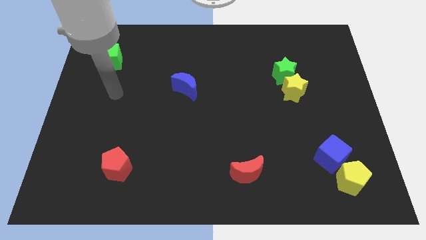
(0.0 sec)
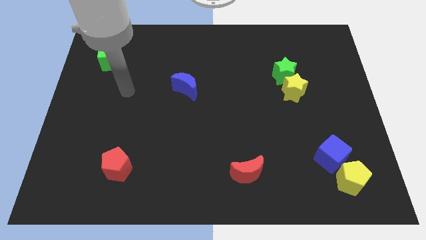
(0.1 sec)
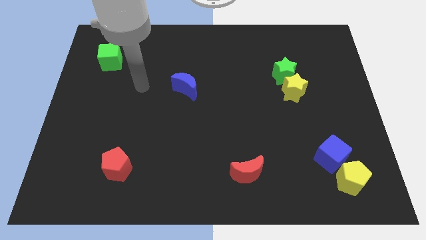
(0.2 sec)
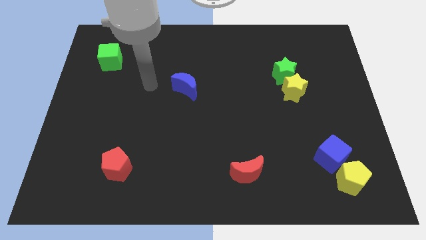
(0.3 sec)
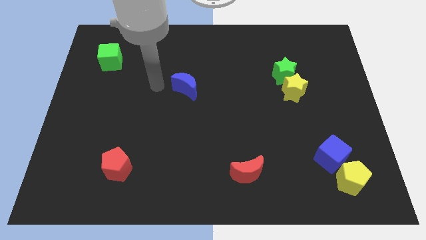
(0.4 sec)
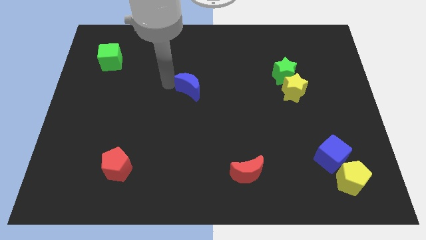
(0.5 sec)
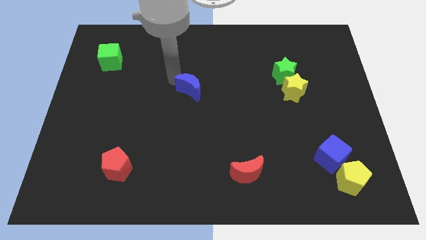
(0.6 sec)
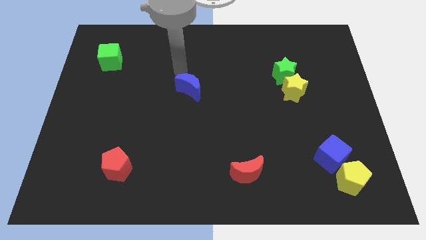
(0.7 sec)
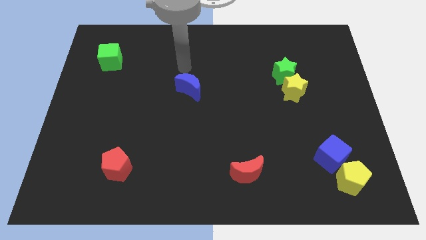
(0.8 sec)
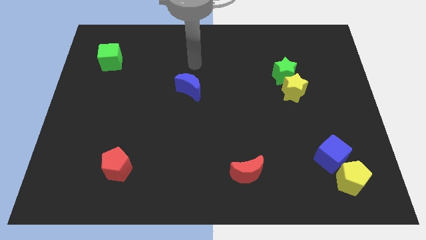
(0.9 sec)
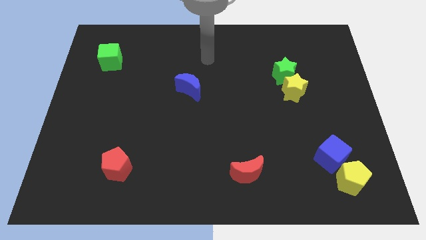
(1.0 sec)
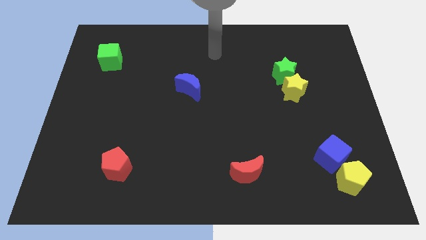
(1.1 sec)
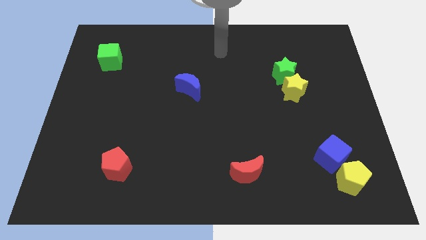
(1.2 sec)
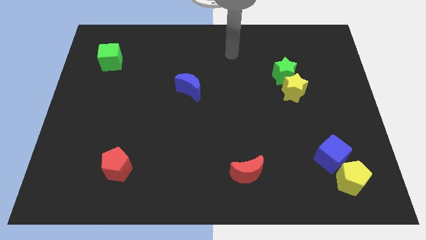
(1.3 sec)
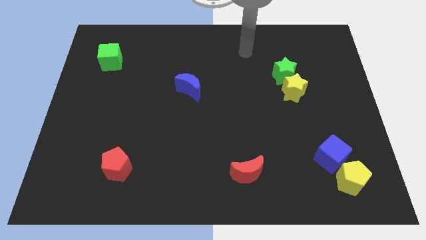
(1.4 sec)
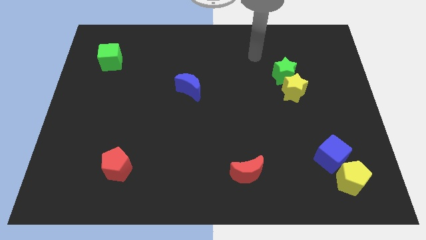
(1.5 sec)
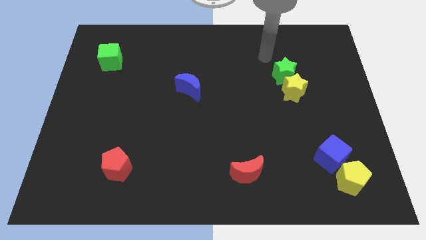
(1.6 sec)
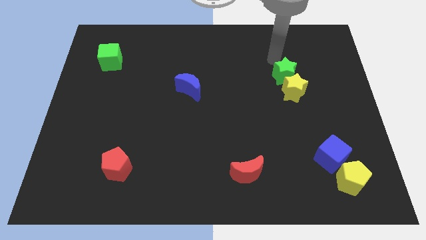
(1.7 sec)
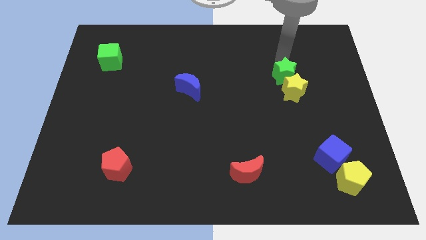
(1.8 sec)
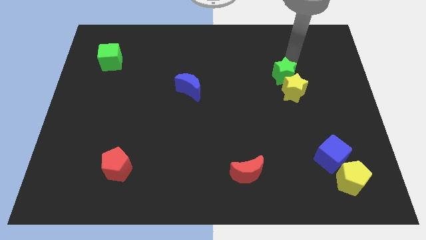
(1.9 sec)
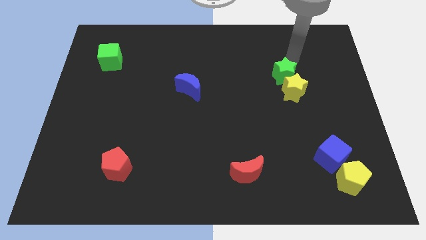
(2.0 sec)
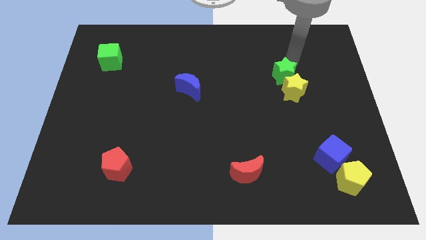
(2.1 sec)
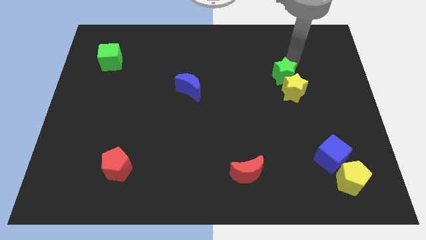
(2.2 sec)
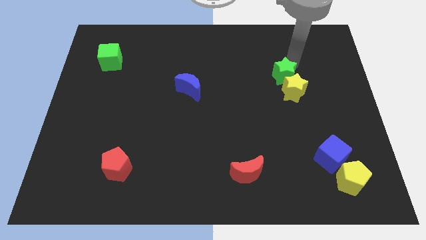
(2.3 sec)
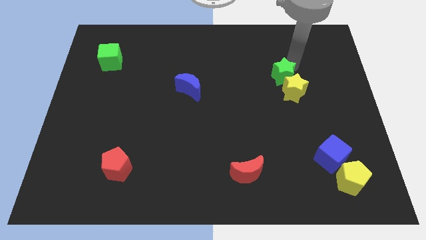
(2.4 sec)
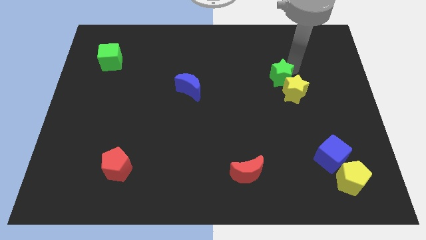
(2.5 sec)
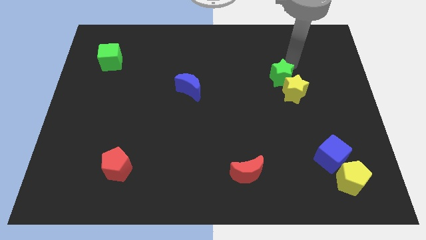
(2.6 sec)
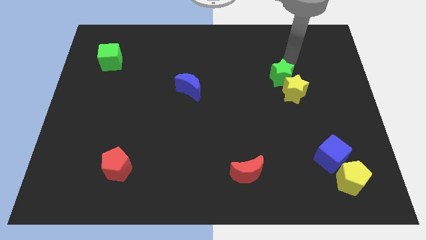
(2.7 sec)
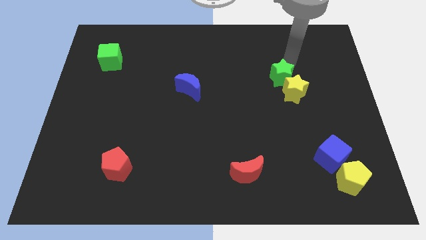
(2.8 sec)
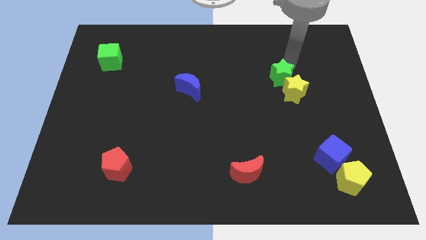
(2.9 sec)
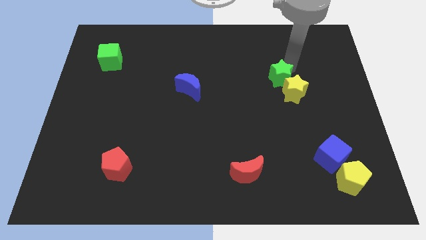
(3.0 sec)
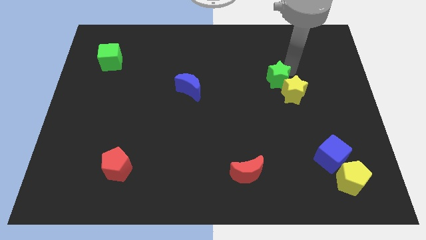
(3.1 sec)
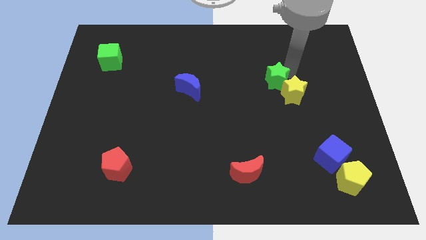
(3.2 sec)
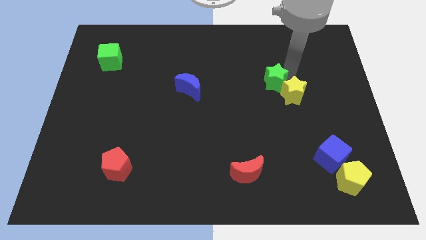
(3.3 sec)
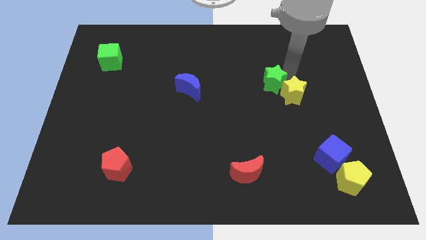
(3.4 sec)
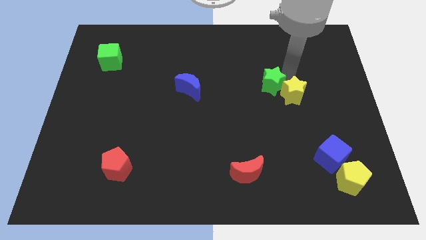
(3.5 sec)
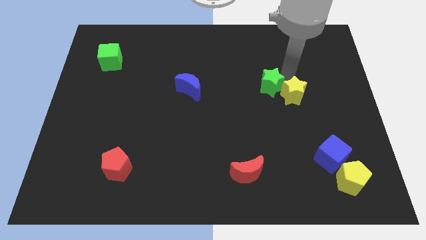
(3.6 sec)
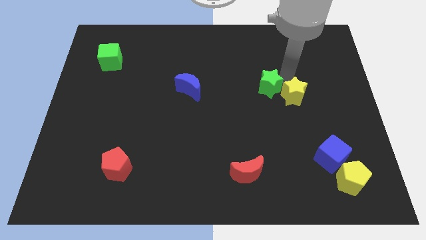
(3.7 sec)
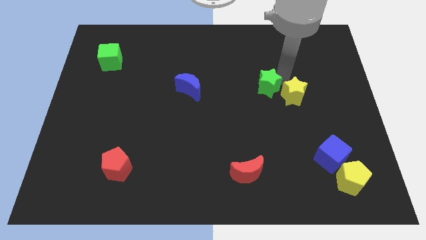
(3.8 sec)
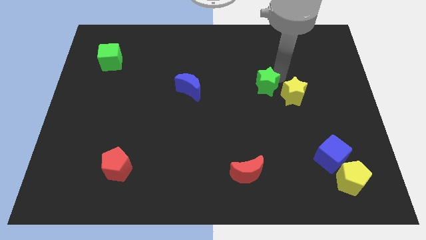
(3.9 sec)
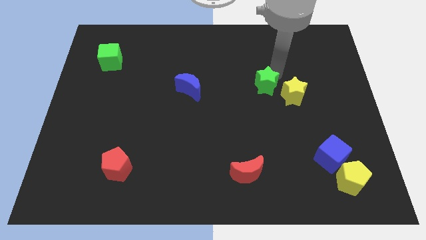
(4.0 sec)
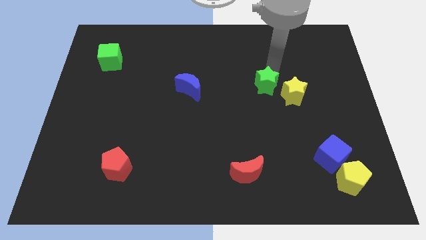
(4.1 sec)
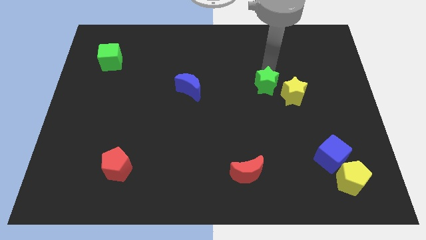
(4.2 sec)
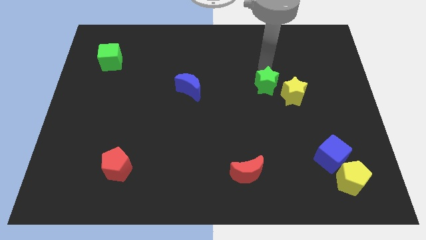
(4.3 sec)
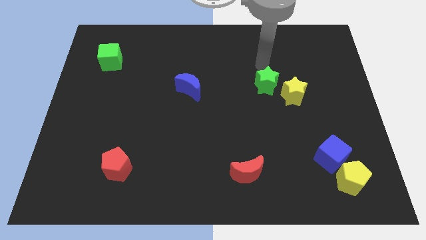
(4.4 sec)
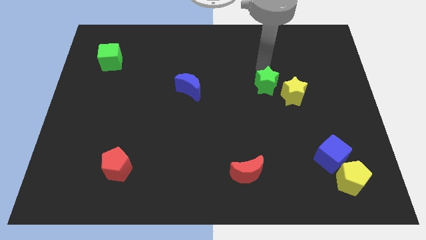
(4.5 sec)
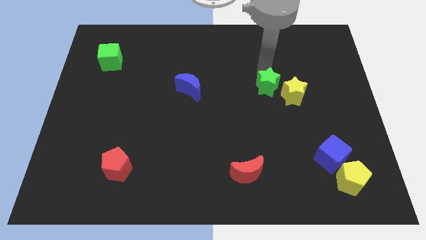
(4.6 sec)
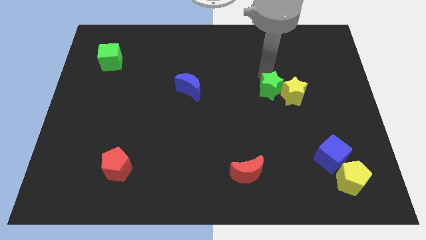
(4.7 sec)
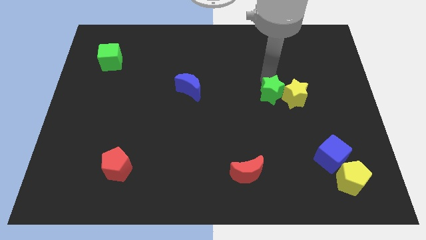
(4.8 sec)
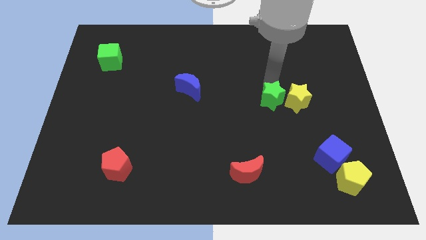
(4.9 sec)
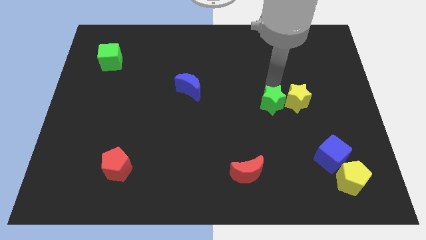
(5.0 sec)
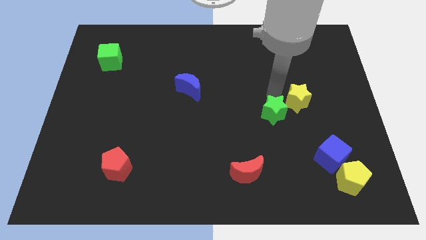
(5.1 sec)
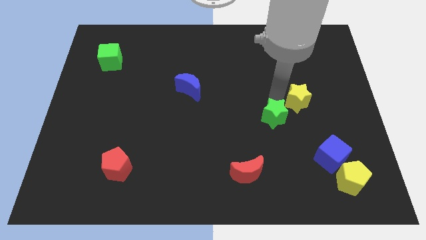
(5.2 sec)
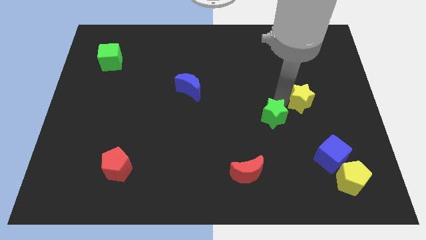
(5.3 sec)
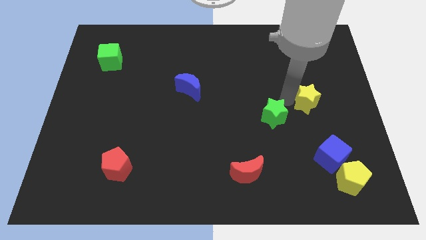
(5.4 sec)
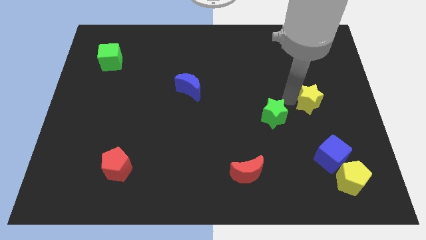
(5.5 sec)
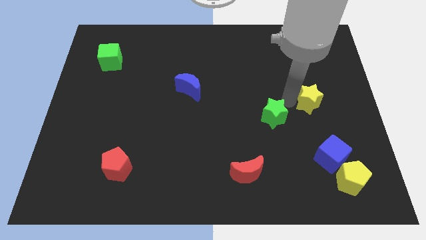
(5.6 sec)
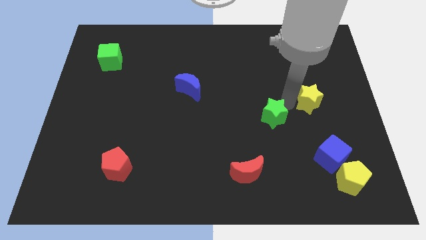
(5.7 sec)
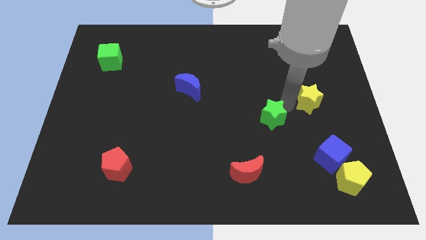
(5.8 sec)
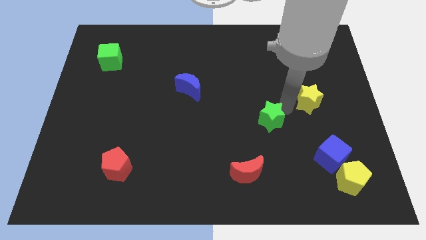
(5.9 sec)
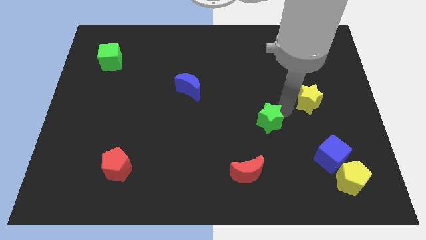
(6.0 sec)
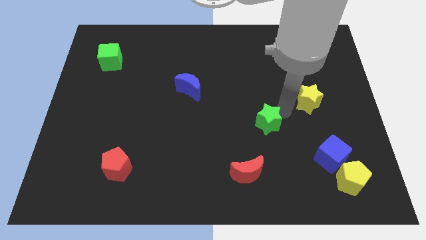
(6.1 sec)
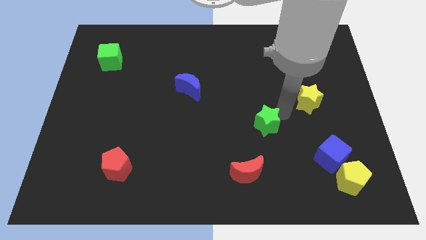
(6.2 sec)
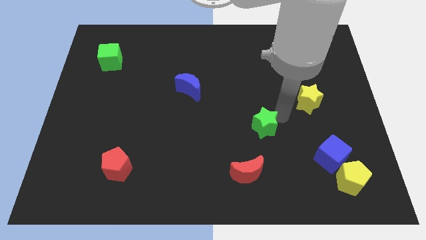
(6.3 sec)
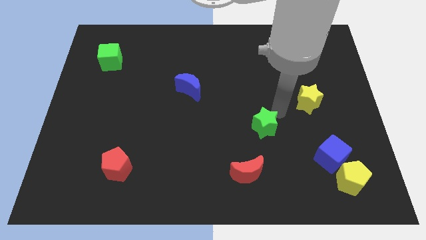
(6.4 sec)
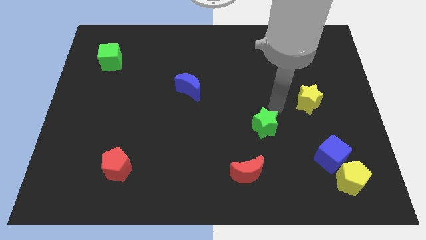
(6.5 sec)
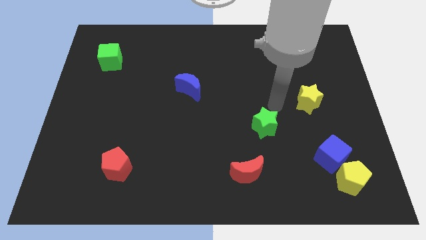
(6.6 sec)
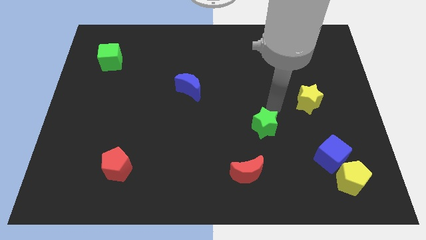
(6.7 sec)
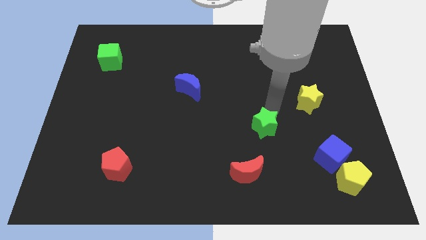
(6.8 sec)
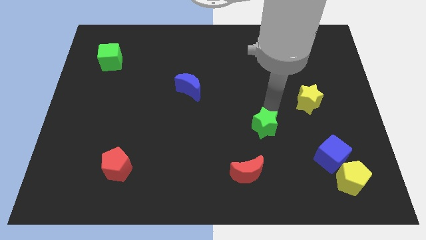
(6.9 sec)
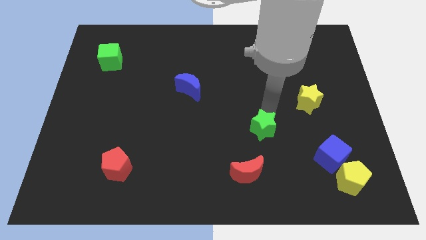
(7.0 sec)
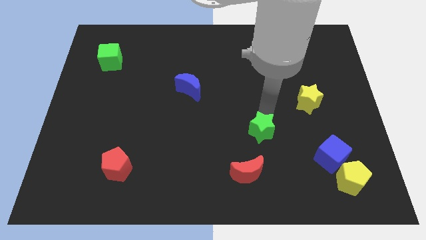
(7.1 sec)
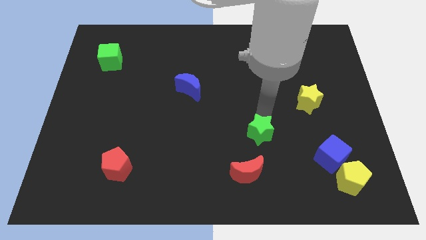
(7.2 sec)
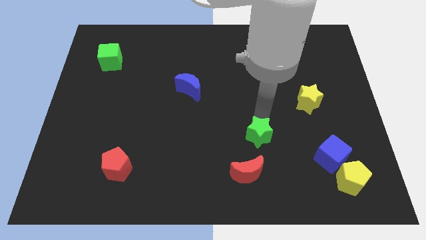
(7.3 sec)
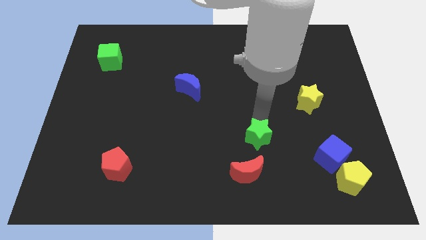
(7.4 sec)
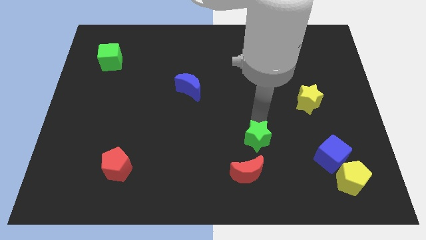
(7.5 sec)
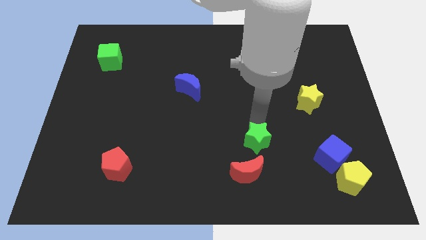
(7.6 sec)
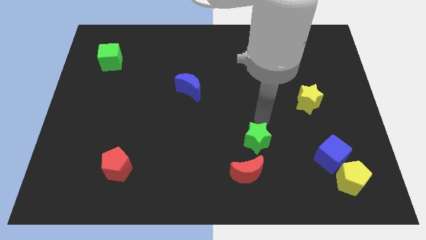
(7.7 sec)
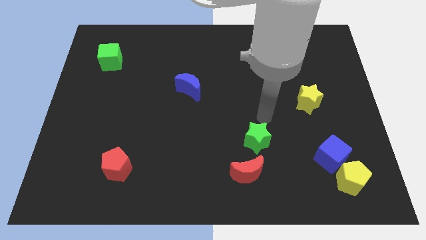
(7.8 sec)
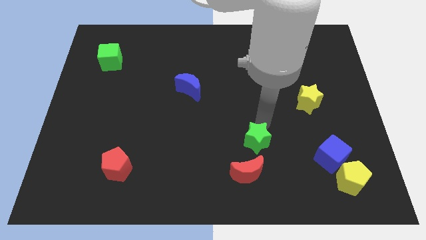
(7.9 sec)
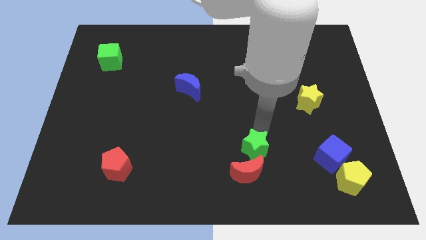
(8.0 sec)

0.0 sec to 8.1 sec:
push the green star towards the red moon
